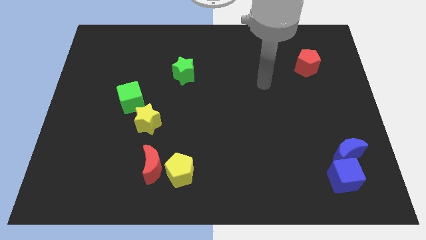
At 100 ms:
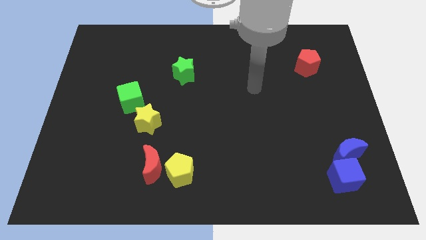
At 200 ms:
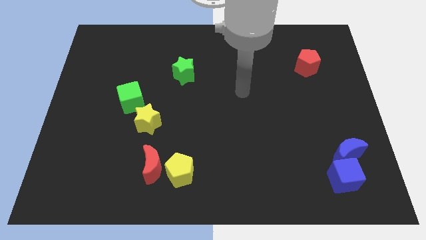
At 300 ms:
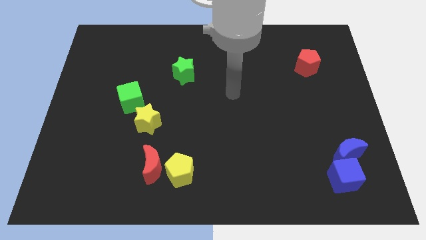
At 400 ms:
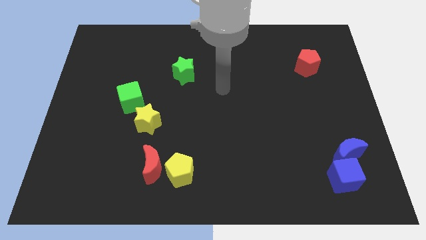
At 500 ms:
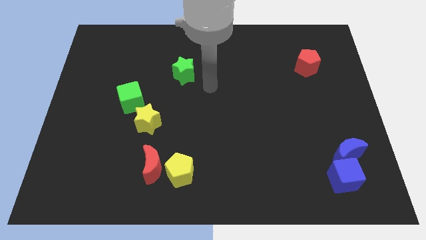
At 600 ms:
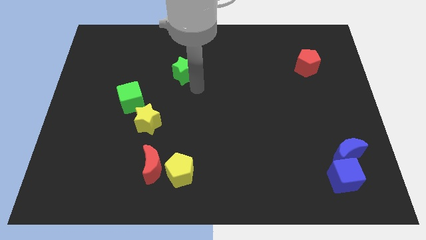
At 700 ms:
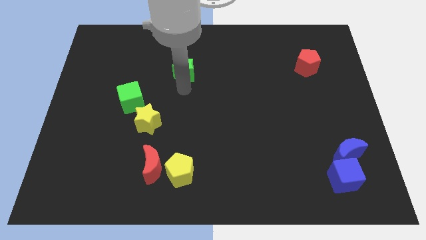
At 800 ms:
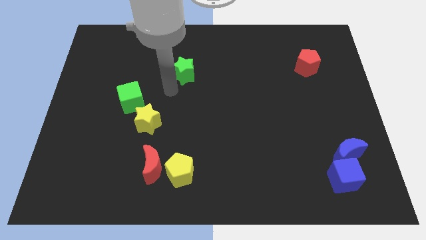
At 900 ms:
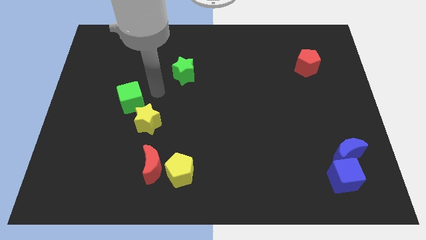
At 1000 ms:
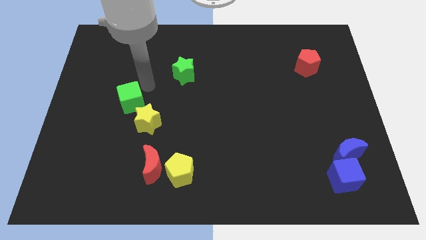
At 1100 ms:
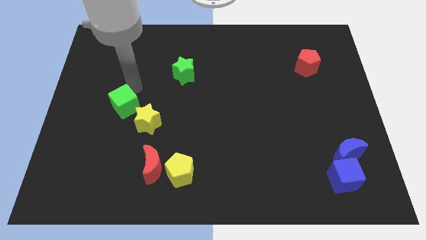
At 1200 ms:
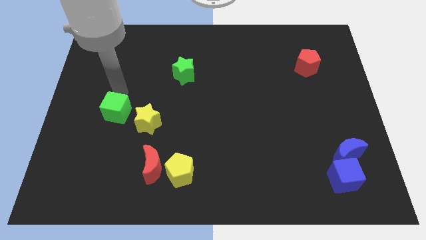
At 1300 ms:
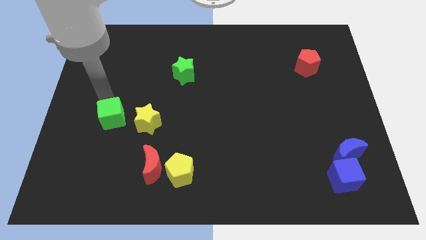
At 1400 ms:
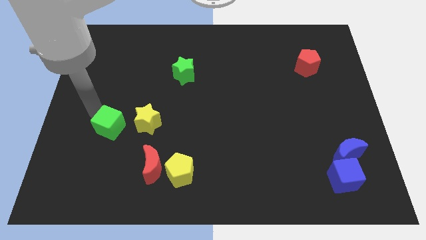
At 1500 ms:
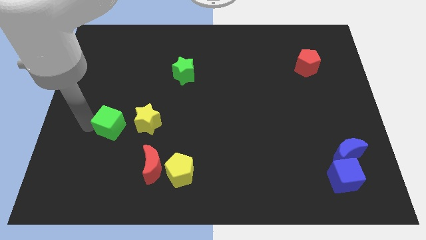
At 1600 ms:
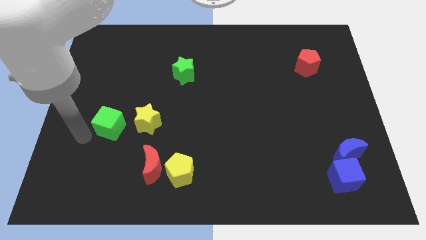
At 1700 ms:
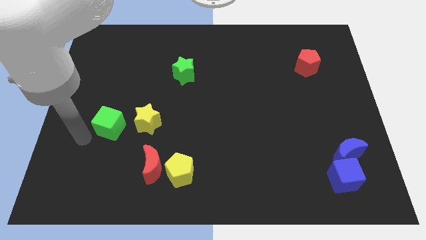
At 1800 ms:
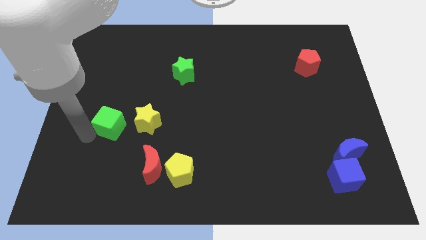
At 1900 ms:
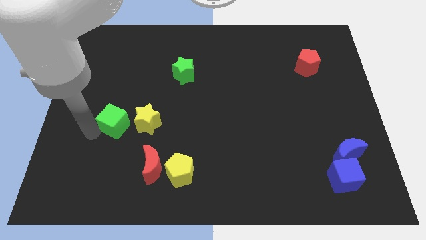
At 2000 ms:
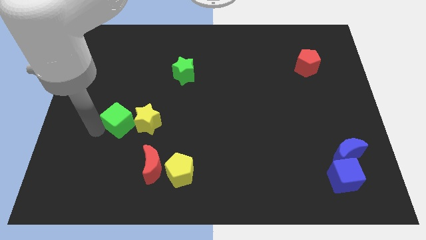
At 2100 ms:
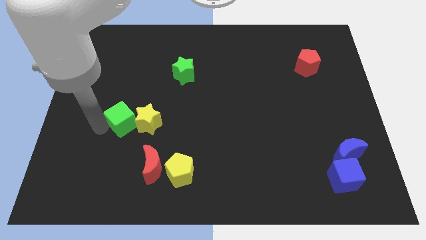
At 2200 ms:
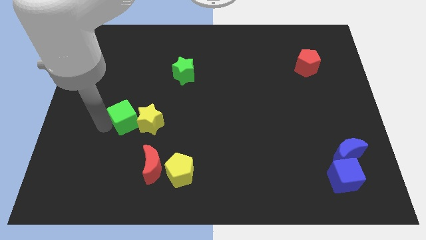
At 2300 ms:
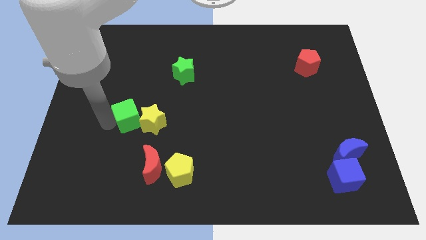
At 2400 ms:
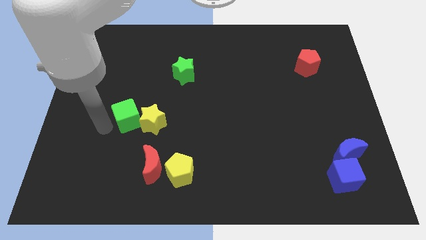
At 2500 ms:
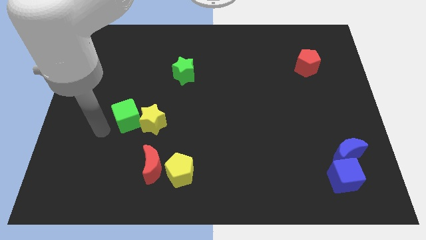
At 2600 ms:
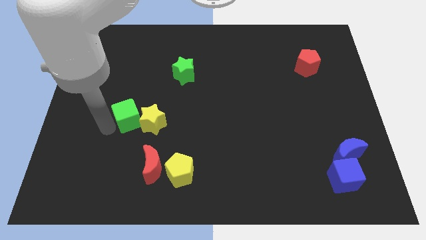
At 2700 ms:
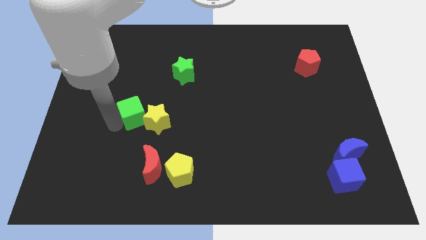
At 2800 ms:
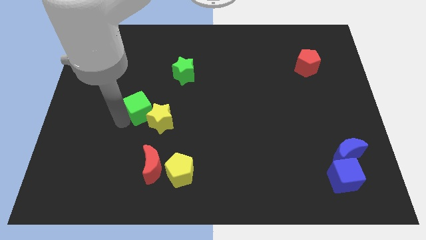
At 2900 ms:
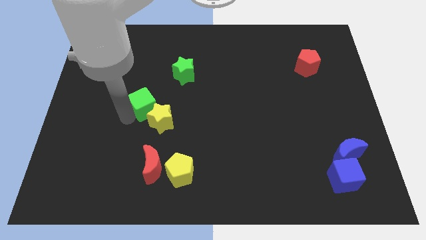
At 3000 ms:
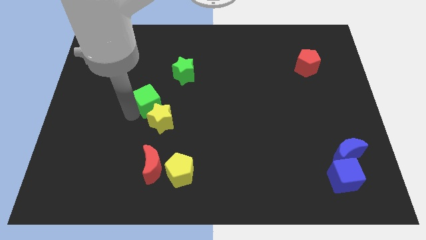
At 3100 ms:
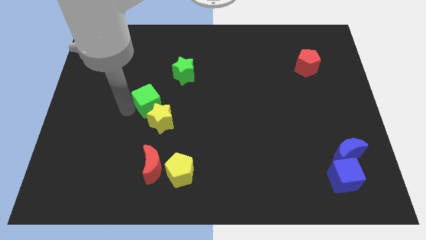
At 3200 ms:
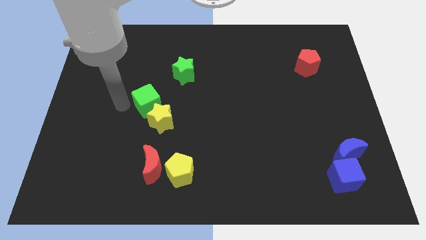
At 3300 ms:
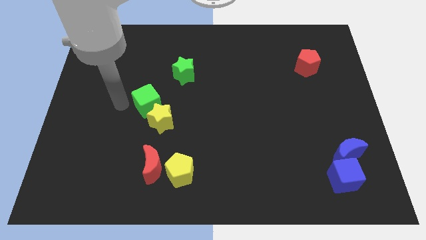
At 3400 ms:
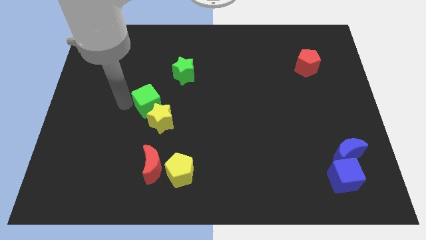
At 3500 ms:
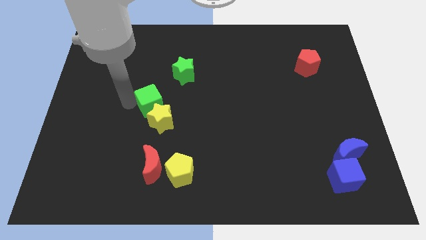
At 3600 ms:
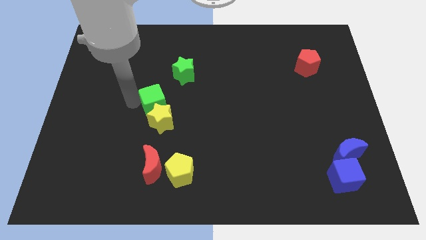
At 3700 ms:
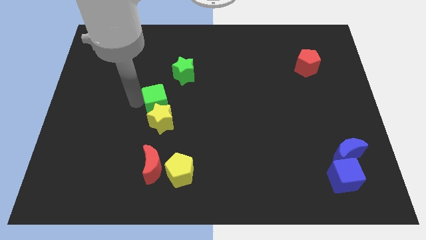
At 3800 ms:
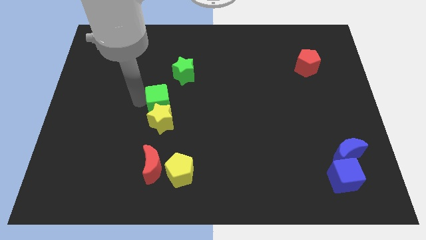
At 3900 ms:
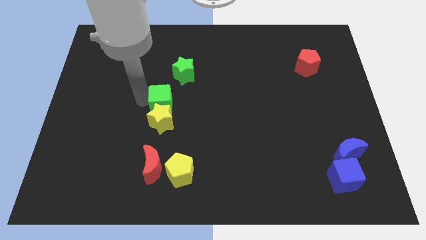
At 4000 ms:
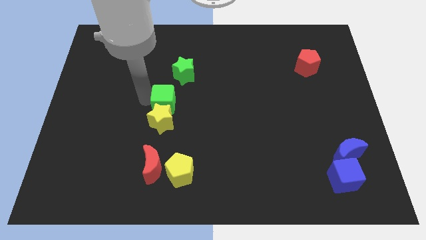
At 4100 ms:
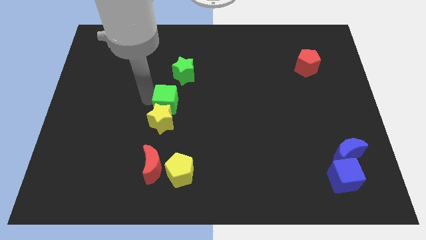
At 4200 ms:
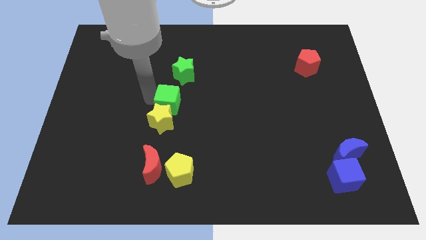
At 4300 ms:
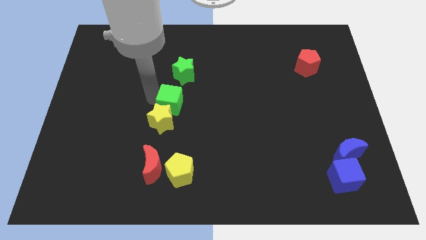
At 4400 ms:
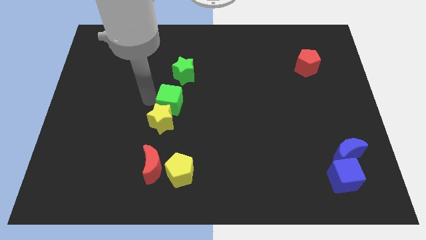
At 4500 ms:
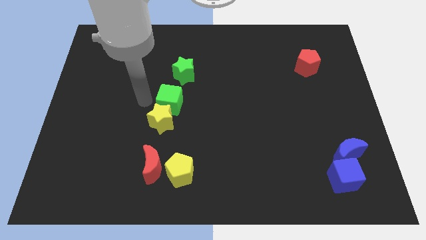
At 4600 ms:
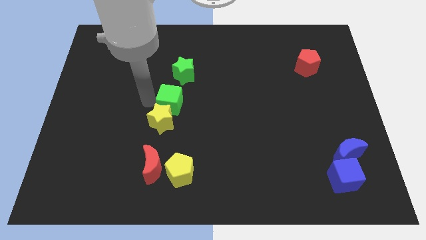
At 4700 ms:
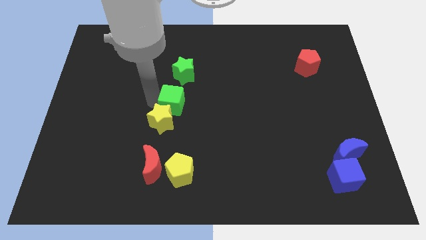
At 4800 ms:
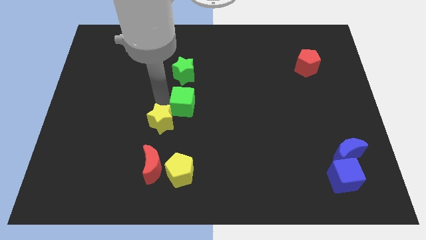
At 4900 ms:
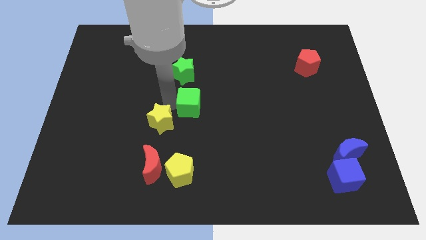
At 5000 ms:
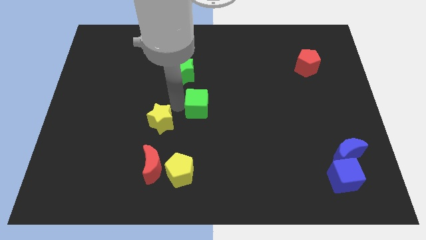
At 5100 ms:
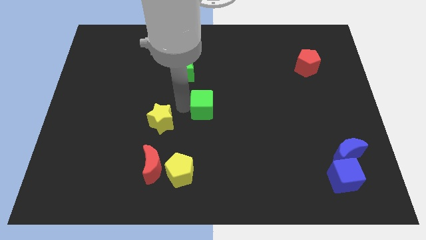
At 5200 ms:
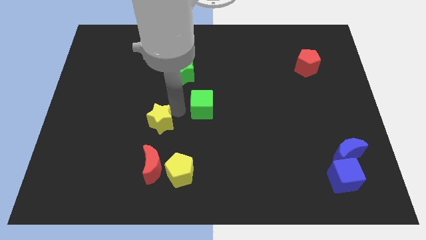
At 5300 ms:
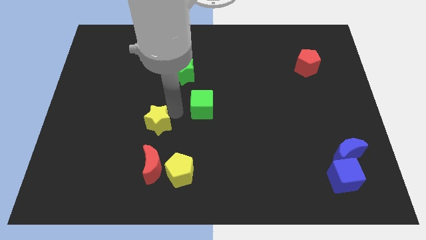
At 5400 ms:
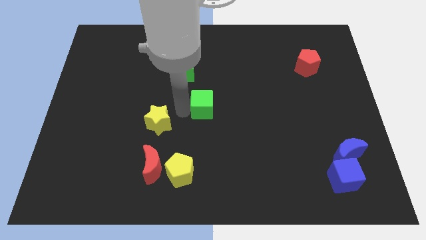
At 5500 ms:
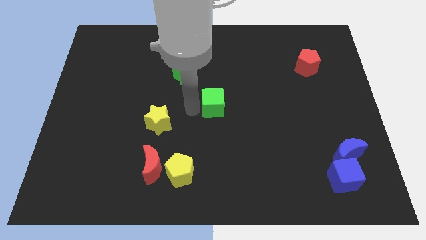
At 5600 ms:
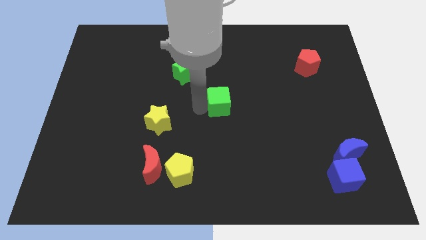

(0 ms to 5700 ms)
push the green cube right

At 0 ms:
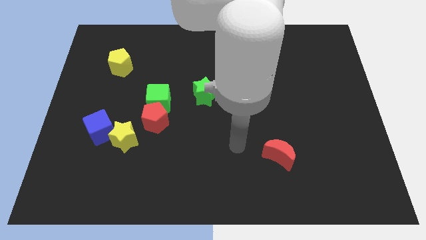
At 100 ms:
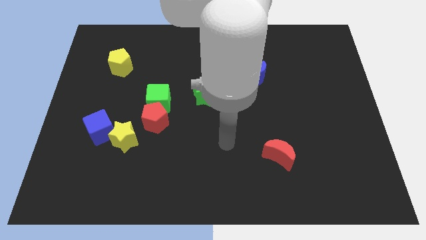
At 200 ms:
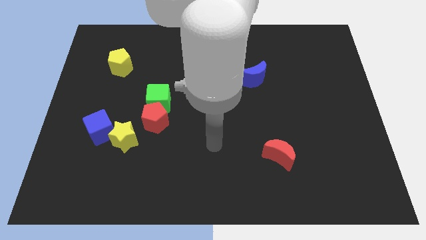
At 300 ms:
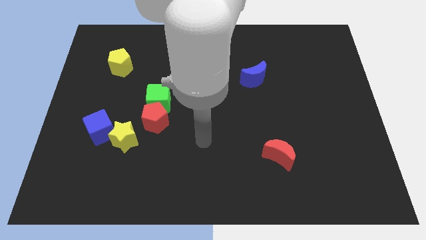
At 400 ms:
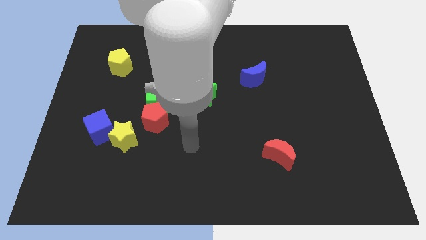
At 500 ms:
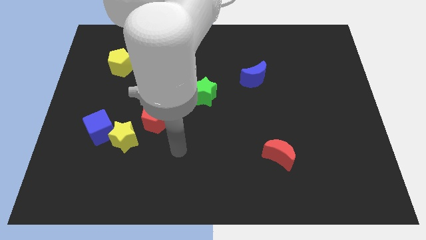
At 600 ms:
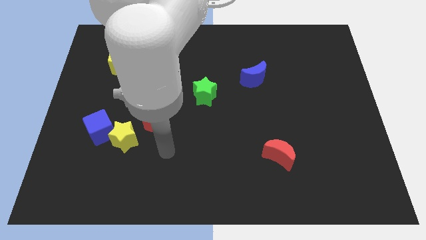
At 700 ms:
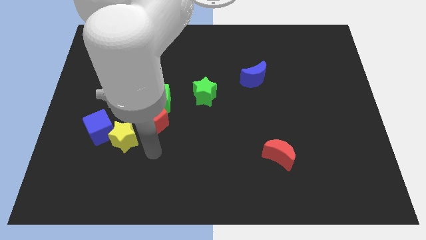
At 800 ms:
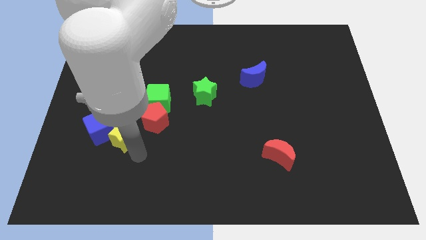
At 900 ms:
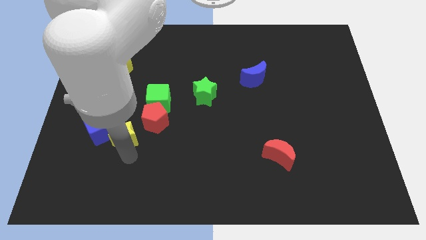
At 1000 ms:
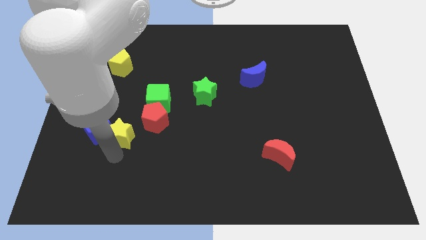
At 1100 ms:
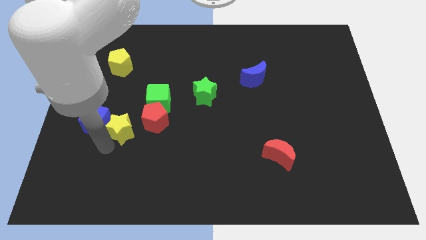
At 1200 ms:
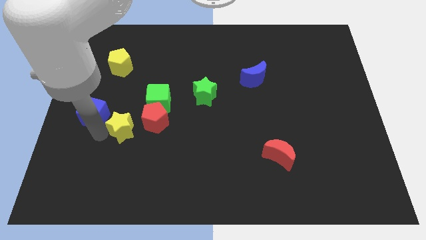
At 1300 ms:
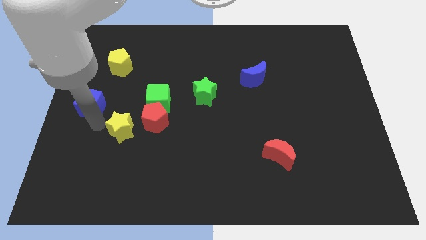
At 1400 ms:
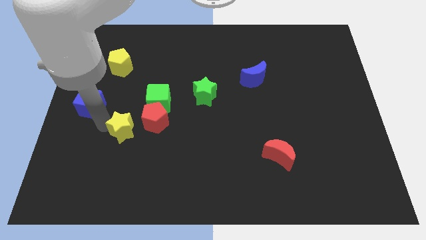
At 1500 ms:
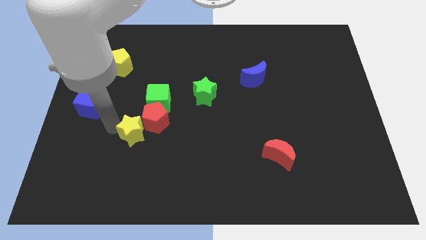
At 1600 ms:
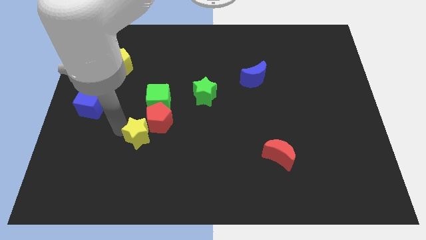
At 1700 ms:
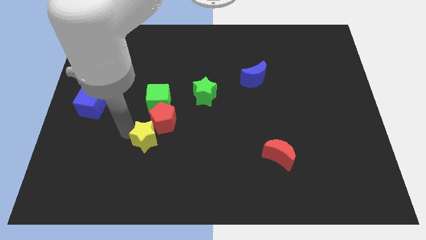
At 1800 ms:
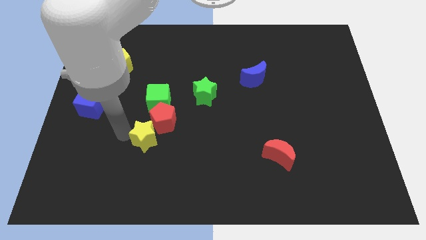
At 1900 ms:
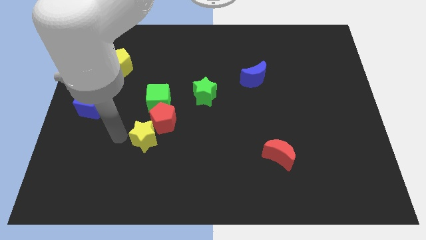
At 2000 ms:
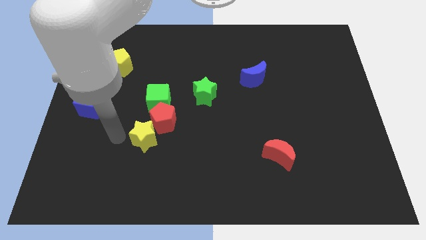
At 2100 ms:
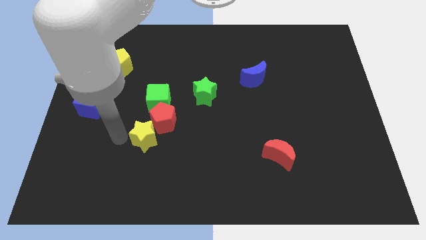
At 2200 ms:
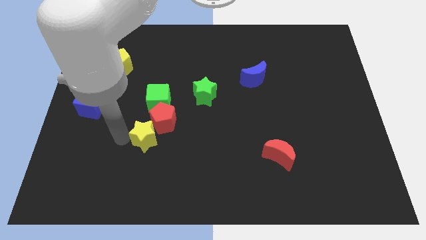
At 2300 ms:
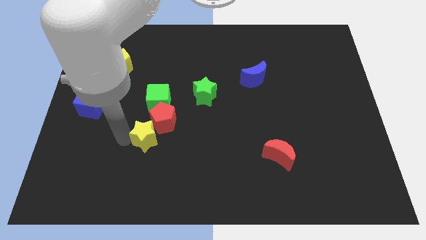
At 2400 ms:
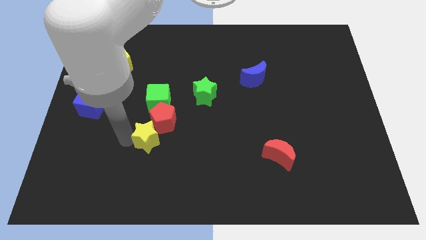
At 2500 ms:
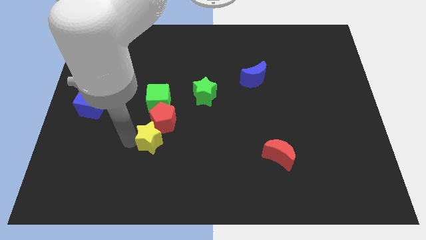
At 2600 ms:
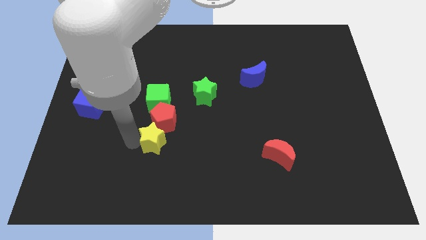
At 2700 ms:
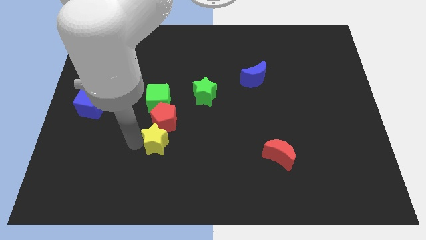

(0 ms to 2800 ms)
move the yellow star to the right a little
